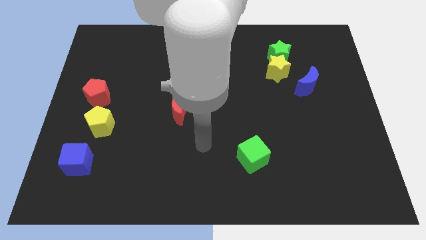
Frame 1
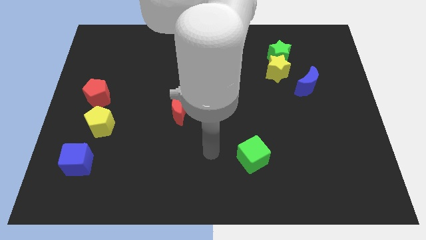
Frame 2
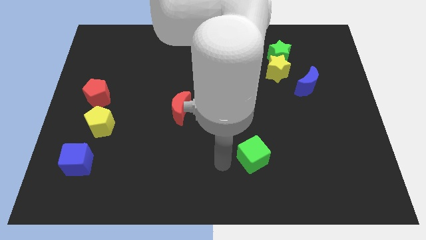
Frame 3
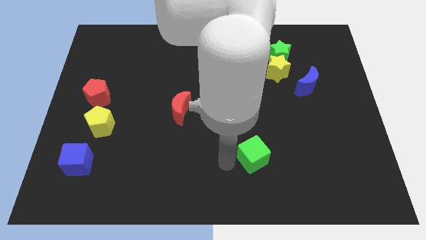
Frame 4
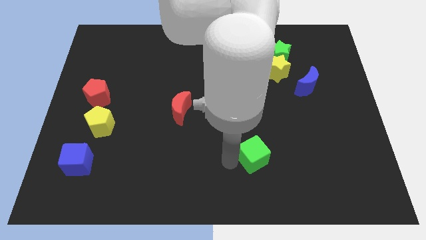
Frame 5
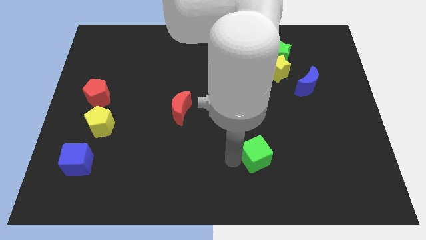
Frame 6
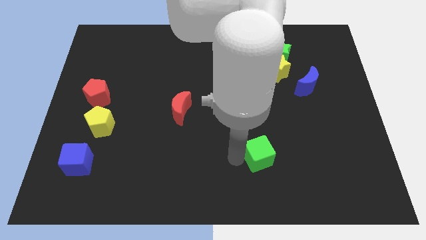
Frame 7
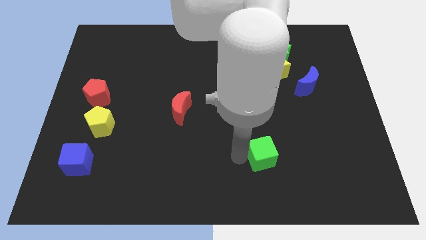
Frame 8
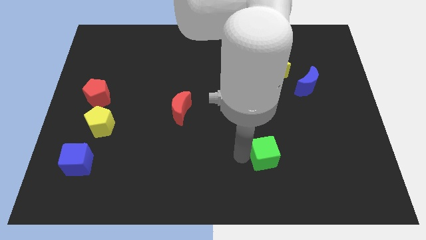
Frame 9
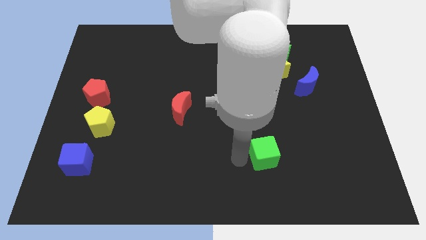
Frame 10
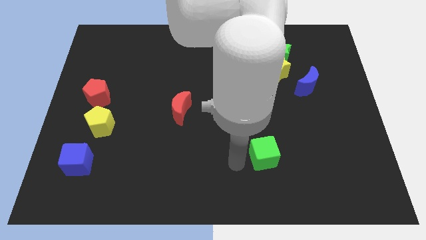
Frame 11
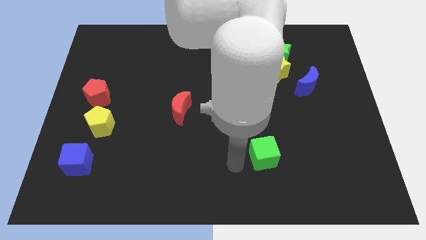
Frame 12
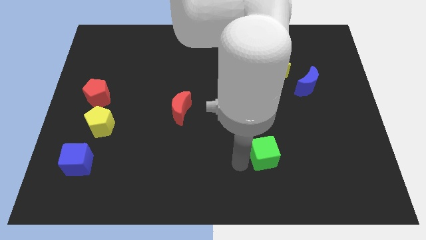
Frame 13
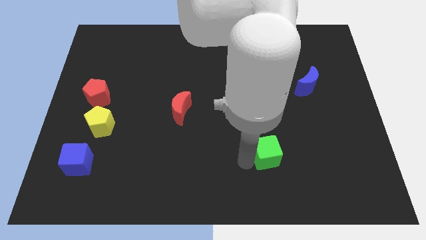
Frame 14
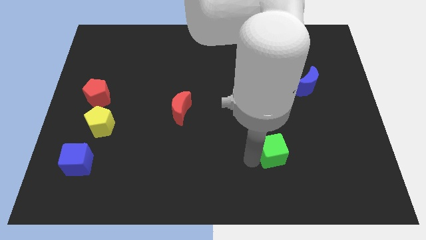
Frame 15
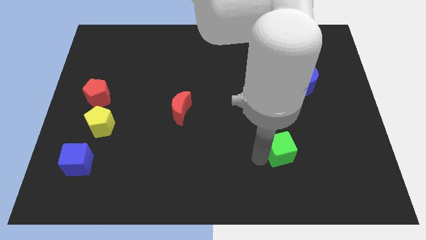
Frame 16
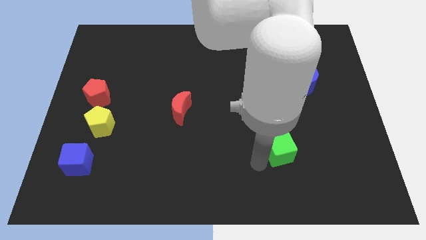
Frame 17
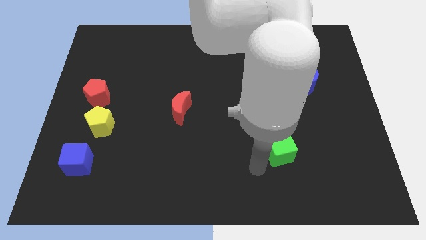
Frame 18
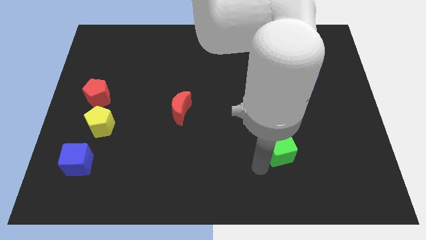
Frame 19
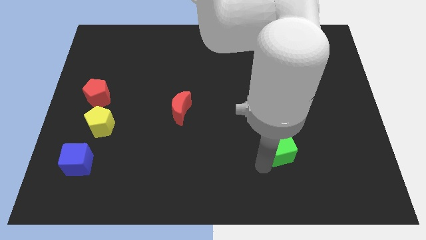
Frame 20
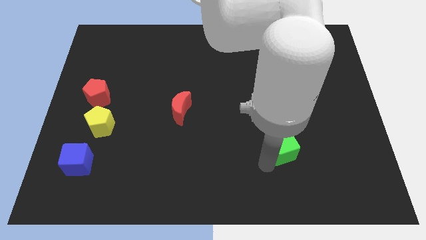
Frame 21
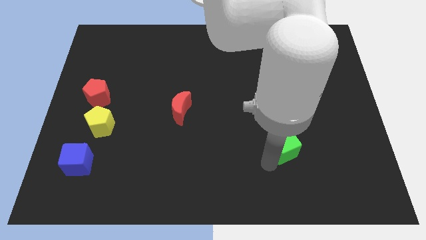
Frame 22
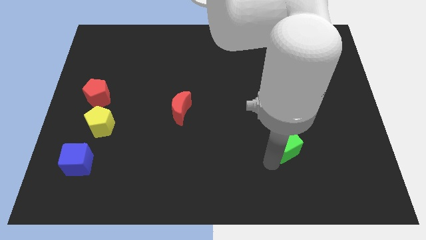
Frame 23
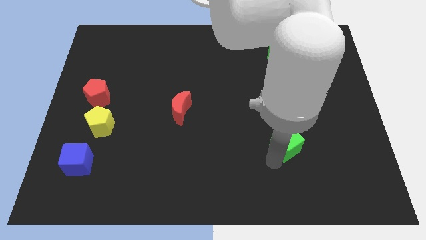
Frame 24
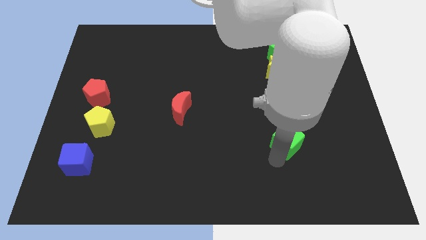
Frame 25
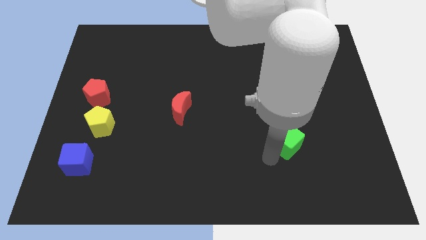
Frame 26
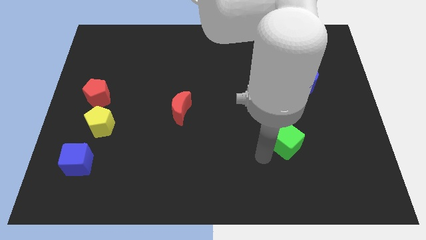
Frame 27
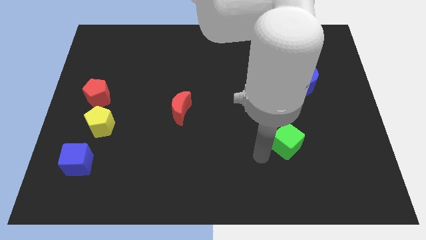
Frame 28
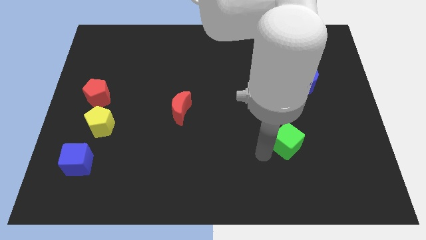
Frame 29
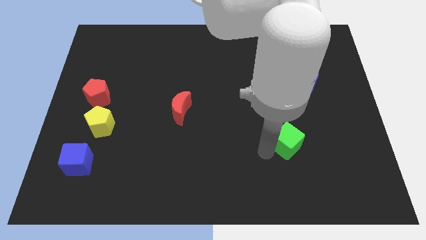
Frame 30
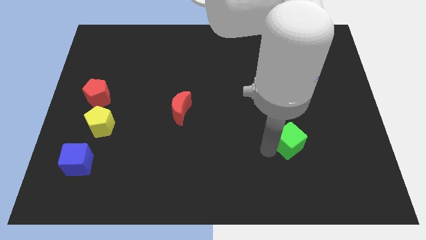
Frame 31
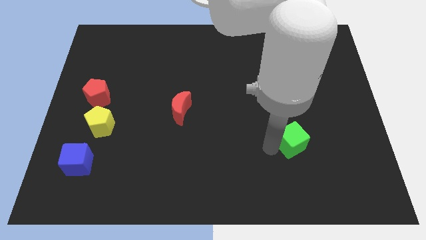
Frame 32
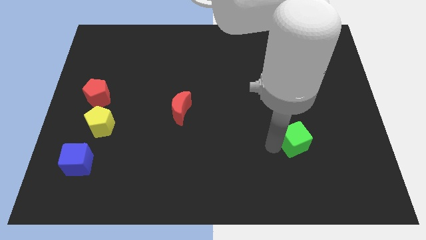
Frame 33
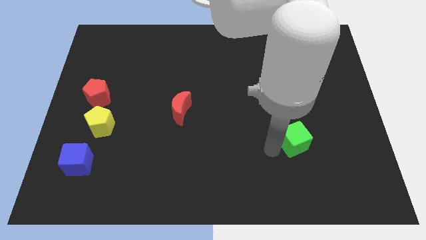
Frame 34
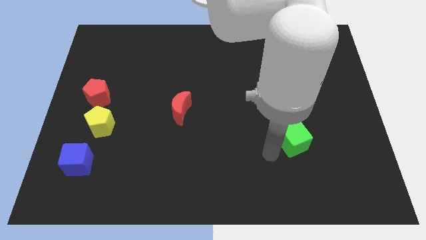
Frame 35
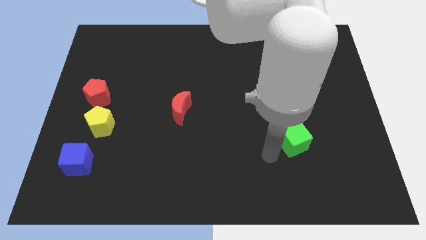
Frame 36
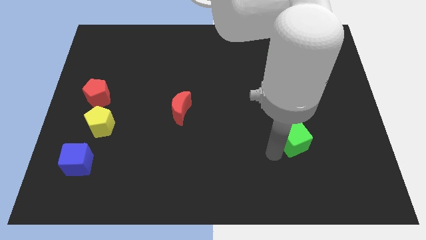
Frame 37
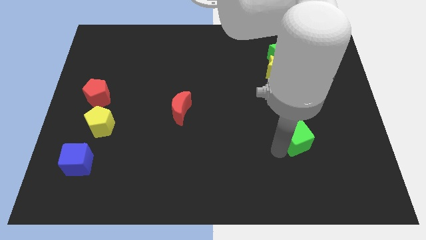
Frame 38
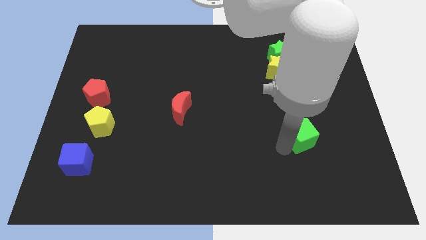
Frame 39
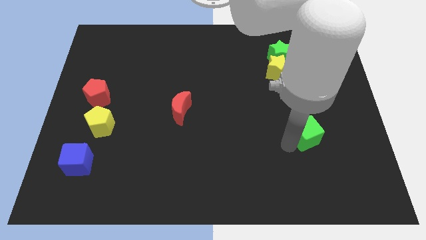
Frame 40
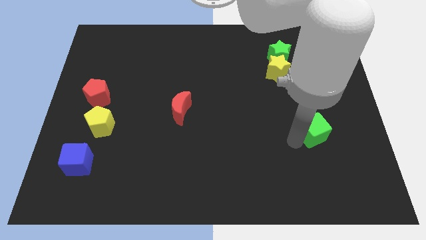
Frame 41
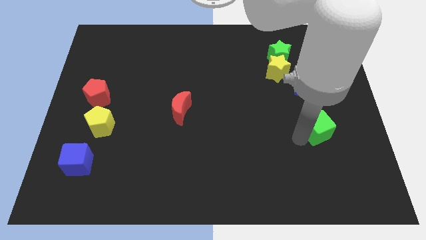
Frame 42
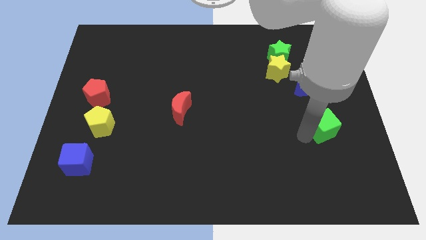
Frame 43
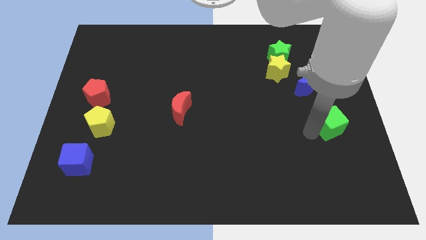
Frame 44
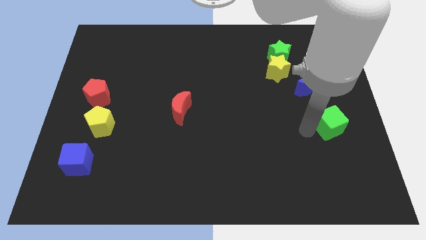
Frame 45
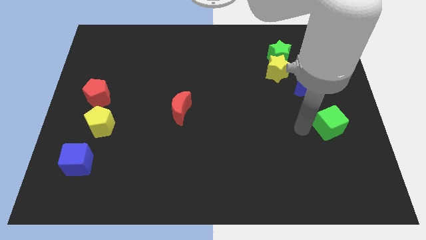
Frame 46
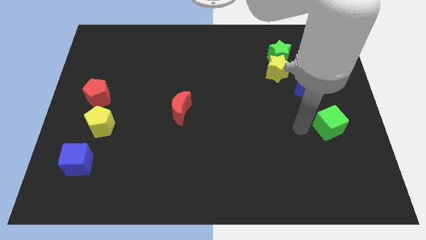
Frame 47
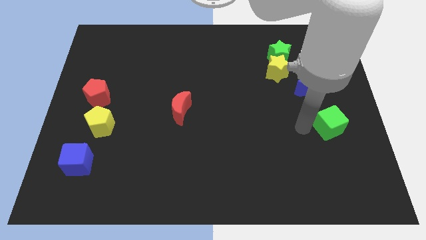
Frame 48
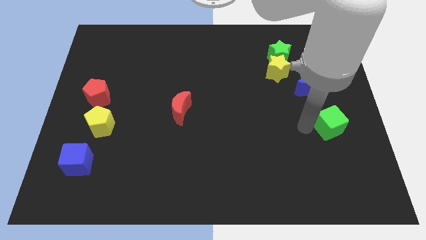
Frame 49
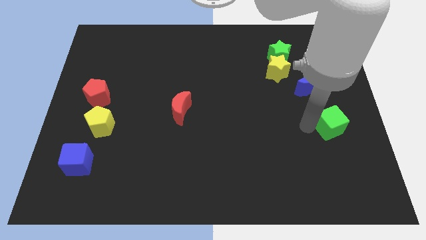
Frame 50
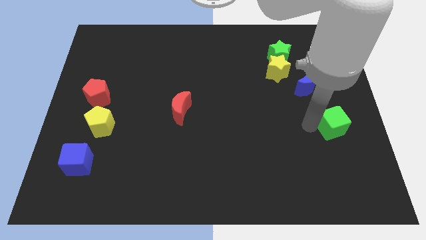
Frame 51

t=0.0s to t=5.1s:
move the green cube to the right side

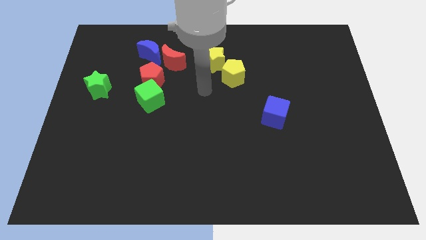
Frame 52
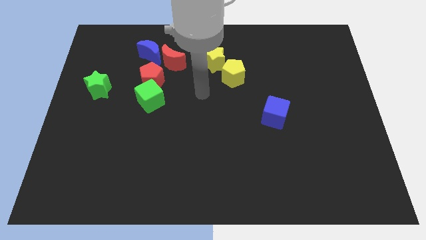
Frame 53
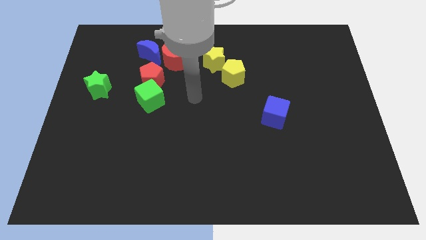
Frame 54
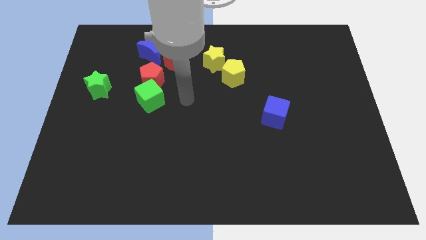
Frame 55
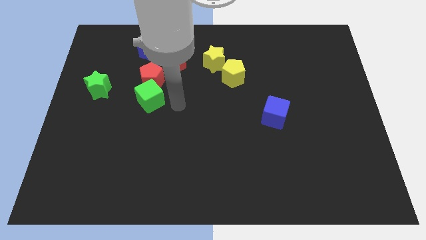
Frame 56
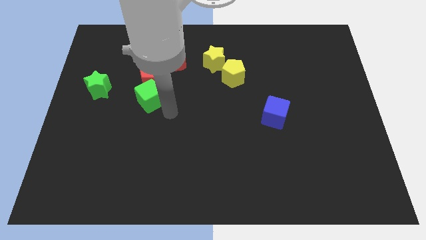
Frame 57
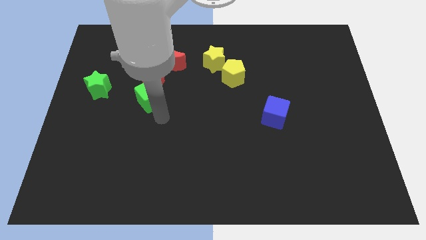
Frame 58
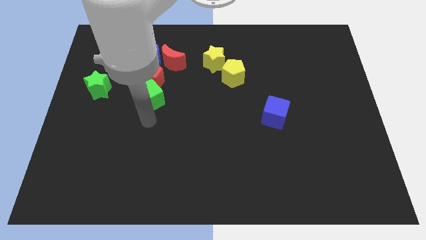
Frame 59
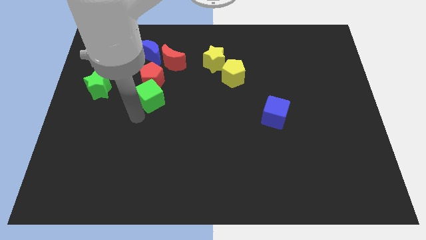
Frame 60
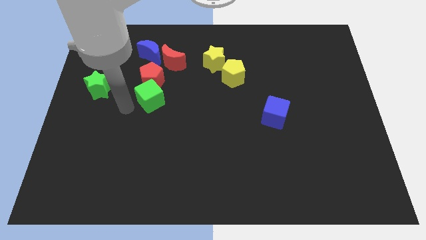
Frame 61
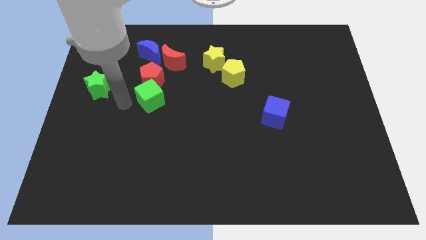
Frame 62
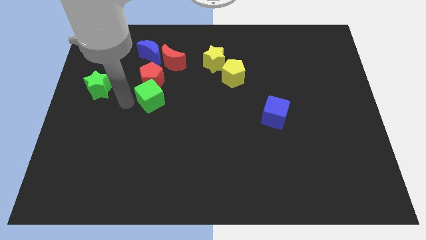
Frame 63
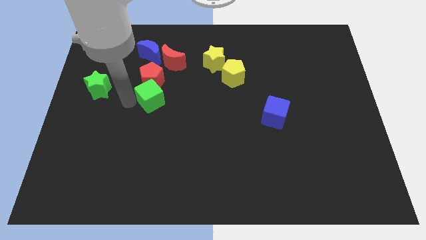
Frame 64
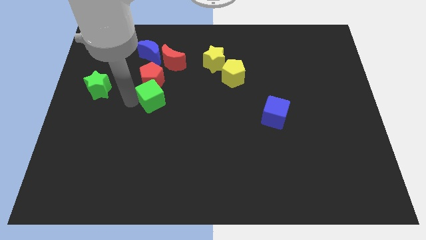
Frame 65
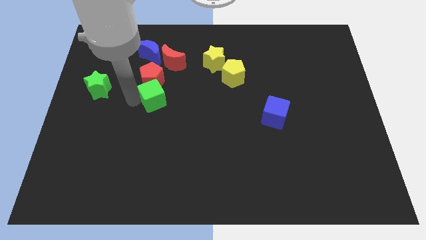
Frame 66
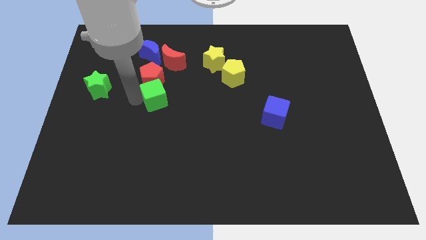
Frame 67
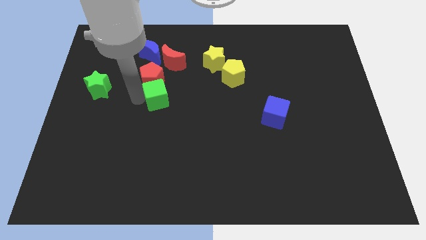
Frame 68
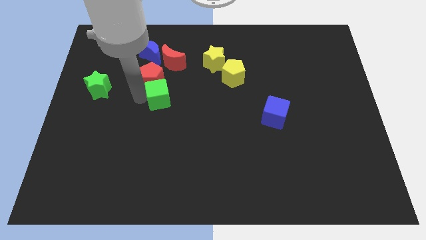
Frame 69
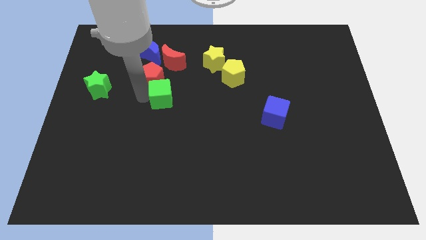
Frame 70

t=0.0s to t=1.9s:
push the green cube to the center of the board
